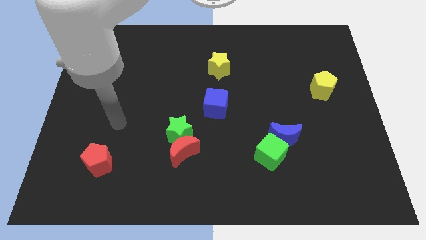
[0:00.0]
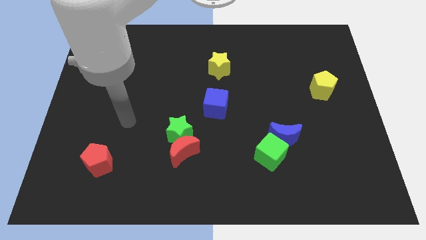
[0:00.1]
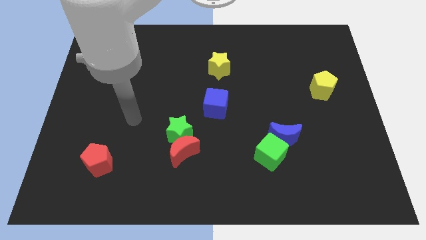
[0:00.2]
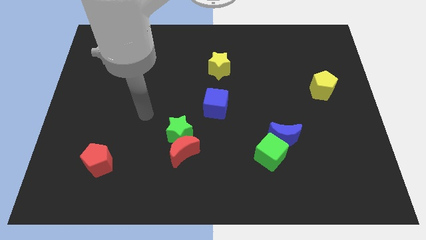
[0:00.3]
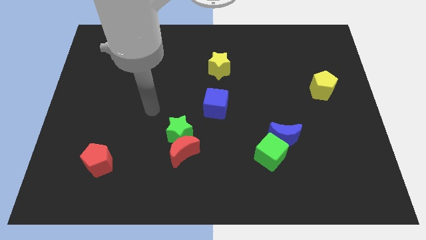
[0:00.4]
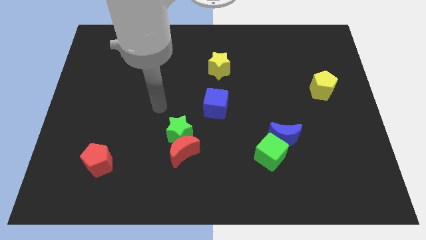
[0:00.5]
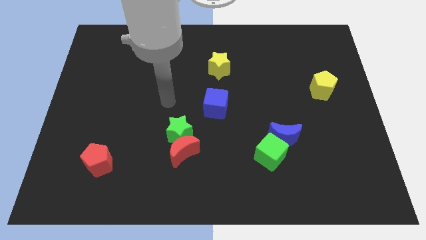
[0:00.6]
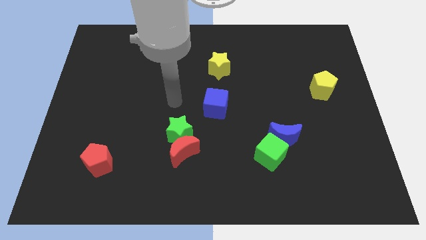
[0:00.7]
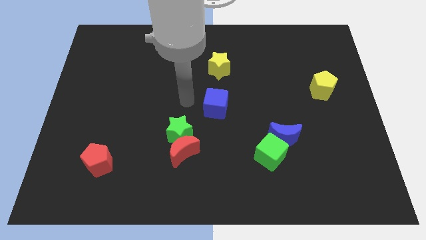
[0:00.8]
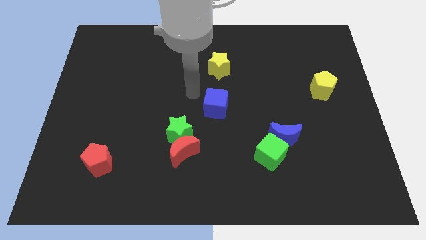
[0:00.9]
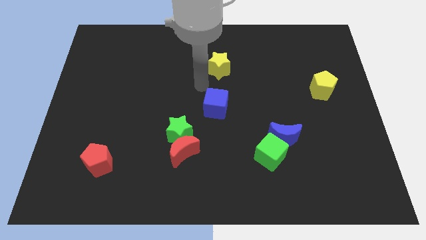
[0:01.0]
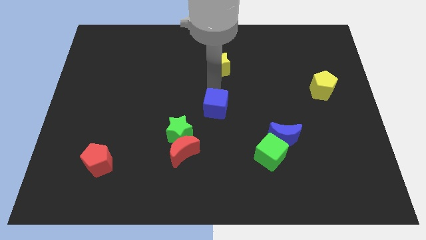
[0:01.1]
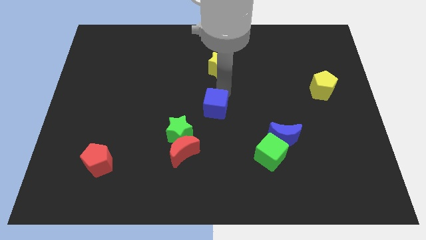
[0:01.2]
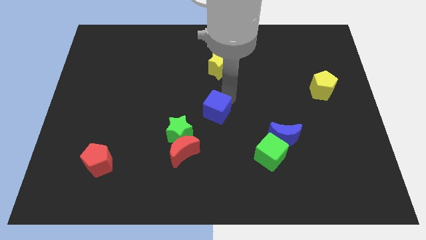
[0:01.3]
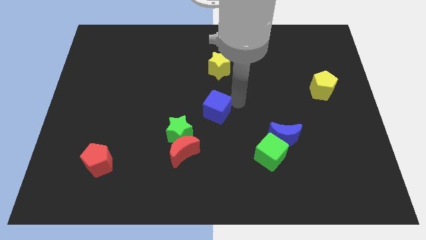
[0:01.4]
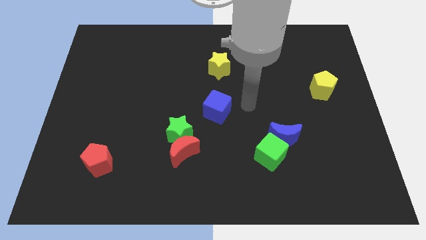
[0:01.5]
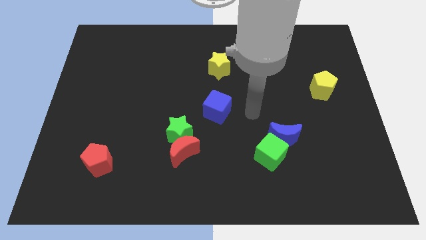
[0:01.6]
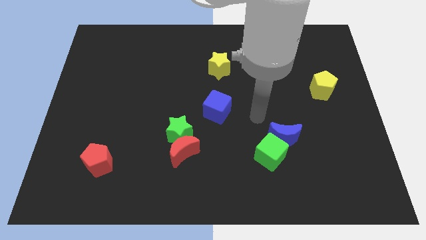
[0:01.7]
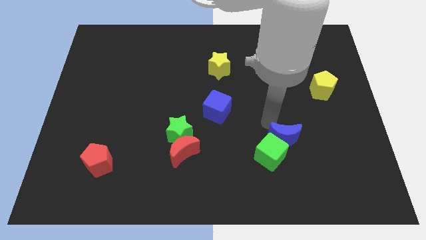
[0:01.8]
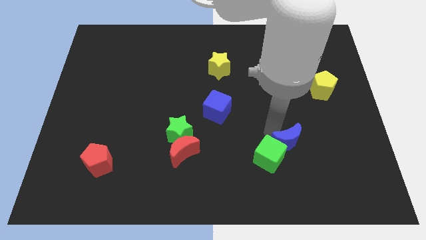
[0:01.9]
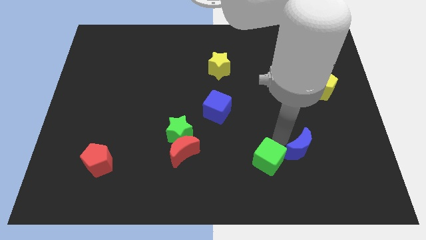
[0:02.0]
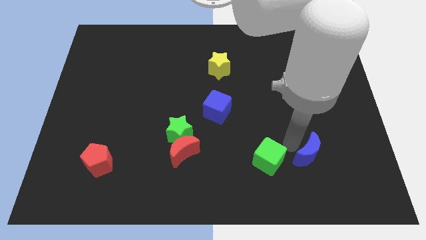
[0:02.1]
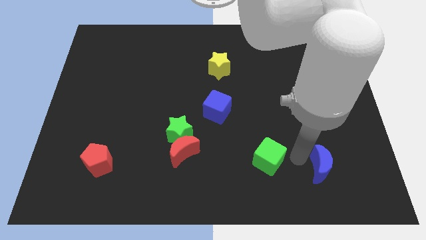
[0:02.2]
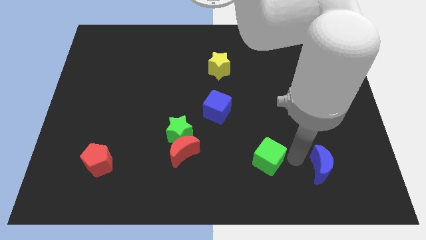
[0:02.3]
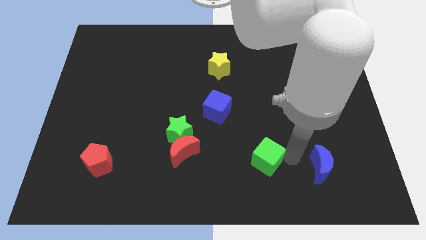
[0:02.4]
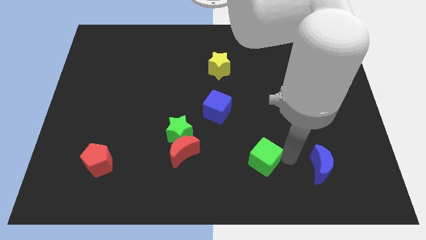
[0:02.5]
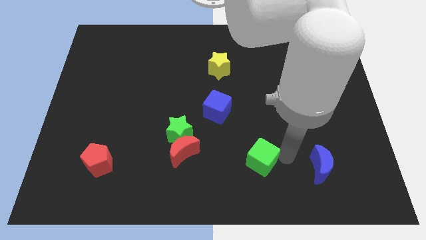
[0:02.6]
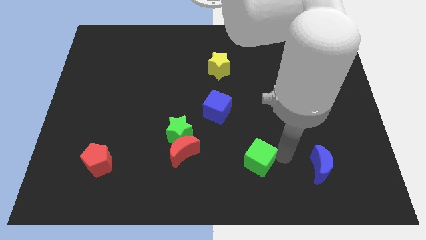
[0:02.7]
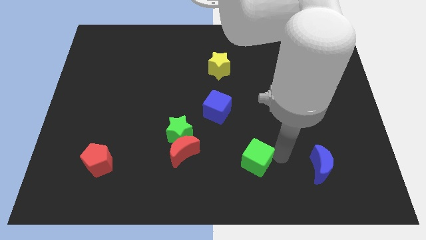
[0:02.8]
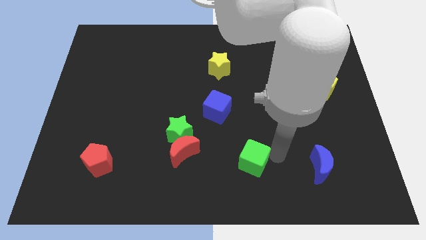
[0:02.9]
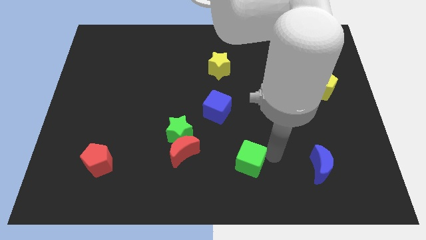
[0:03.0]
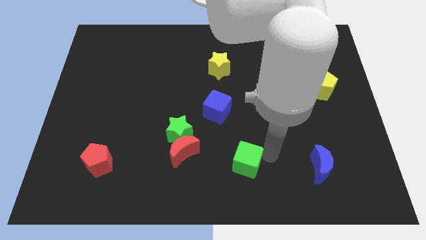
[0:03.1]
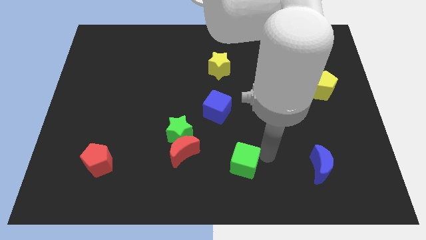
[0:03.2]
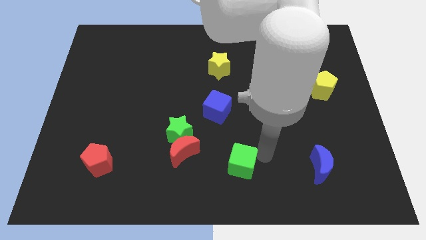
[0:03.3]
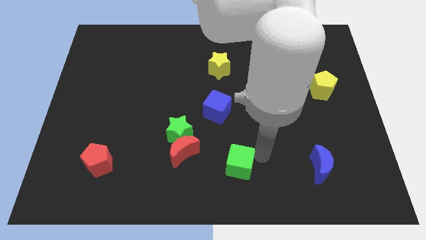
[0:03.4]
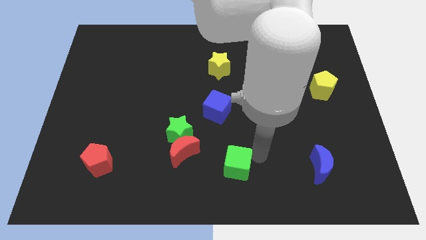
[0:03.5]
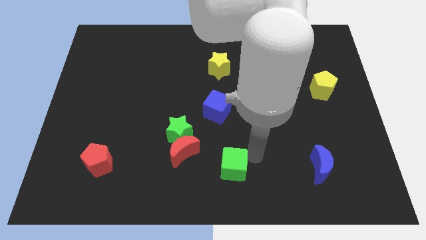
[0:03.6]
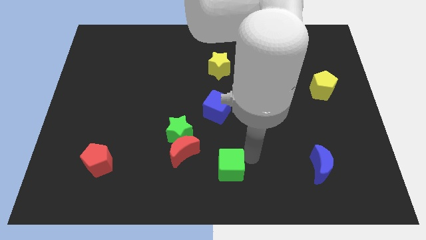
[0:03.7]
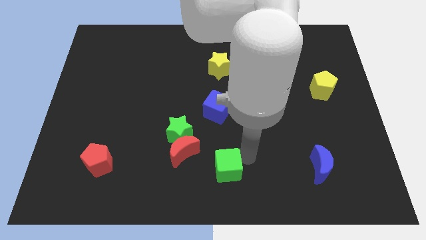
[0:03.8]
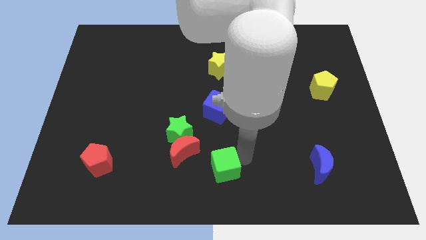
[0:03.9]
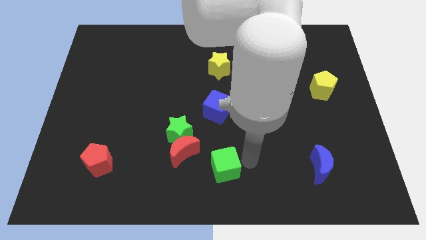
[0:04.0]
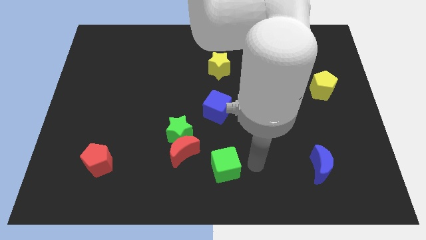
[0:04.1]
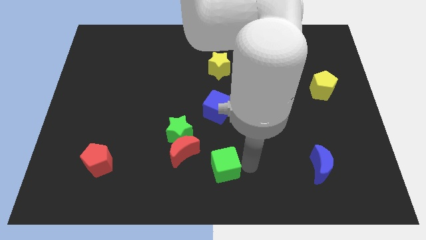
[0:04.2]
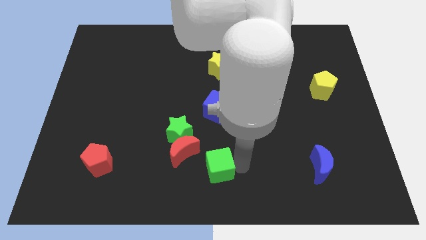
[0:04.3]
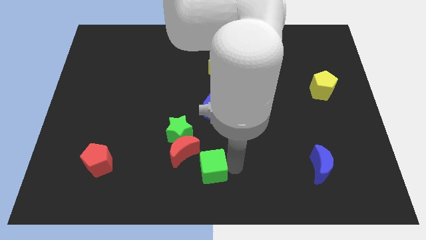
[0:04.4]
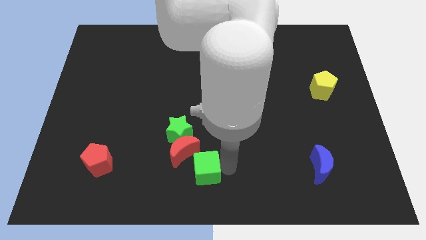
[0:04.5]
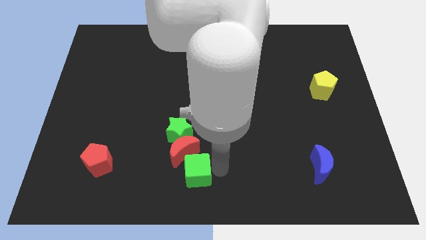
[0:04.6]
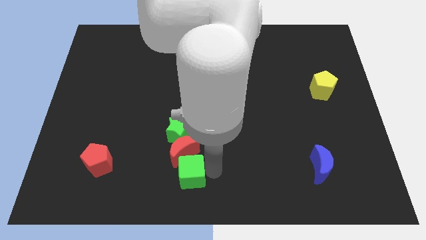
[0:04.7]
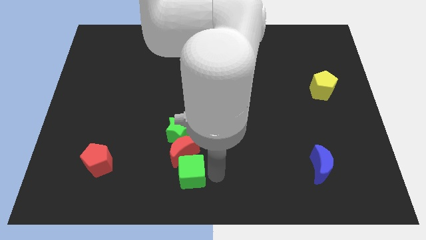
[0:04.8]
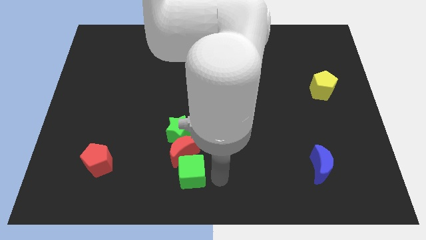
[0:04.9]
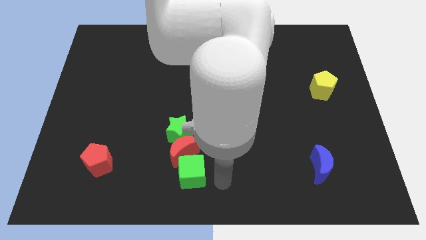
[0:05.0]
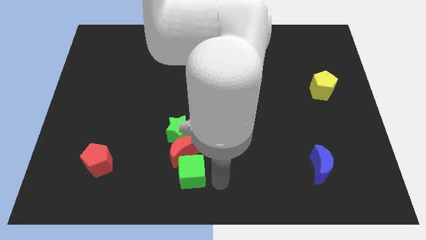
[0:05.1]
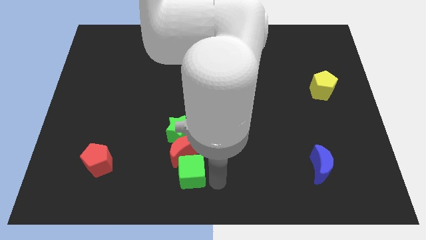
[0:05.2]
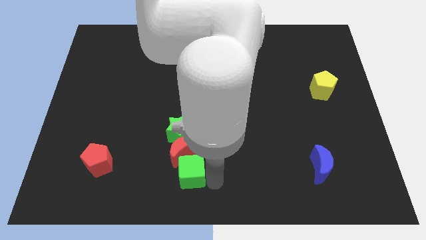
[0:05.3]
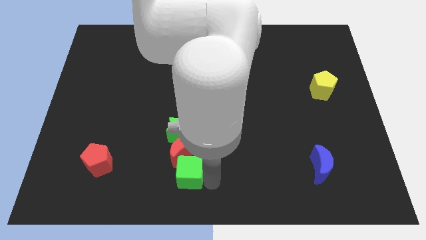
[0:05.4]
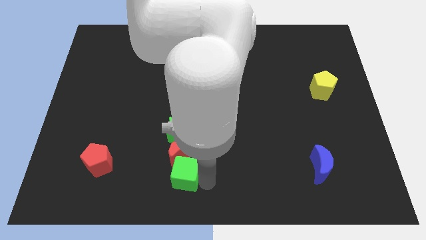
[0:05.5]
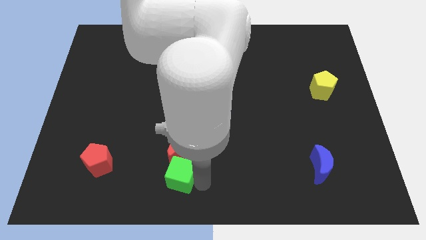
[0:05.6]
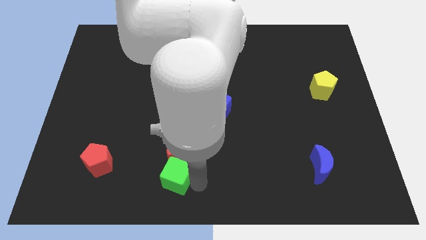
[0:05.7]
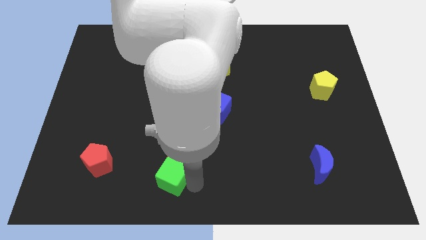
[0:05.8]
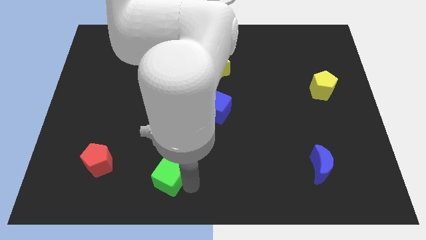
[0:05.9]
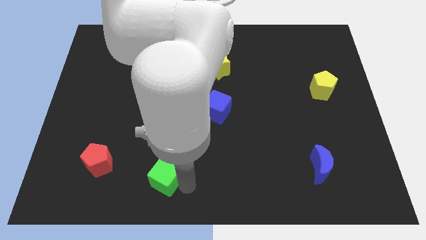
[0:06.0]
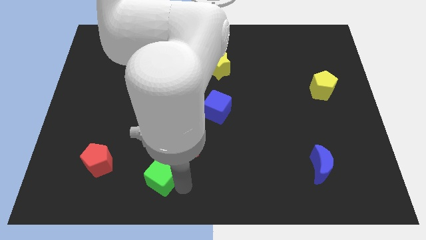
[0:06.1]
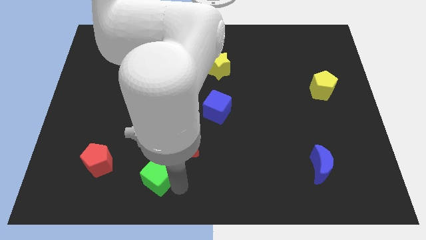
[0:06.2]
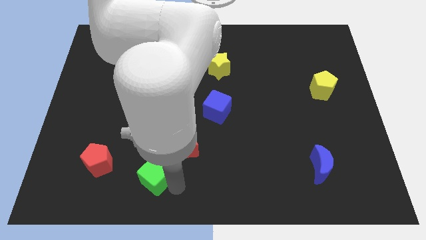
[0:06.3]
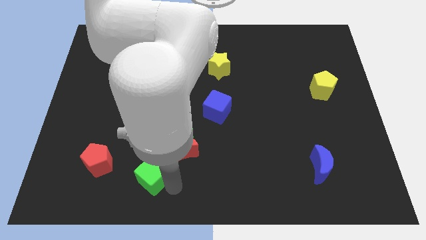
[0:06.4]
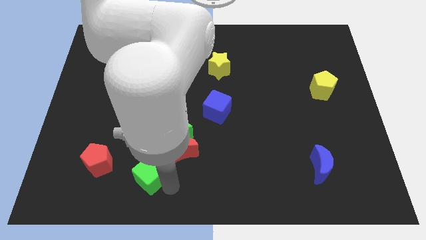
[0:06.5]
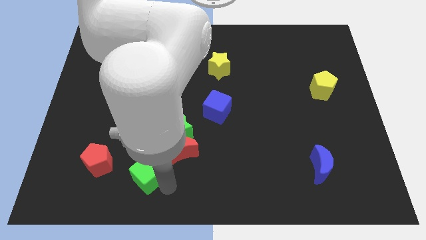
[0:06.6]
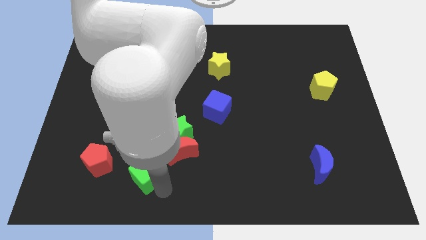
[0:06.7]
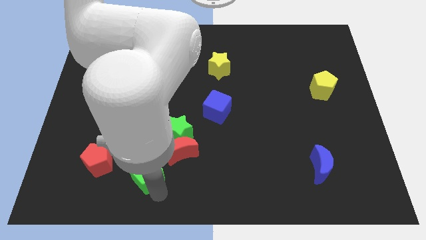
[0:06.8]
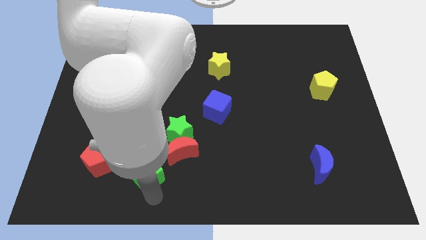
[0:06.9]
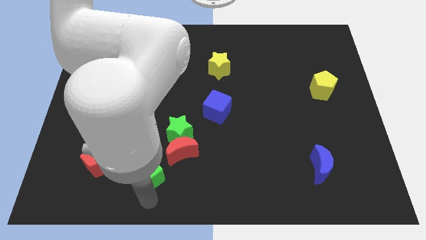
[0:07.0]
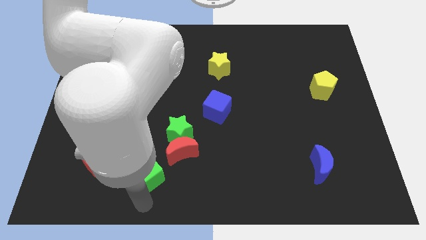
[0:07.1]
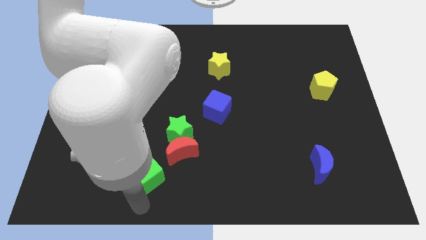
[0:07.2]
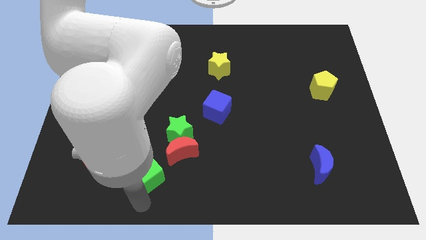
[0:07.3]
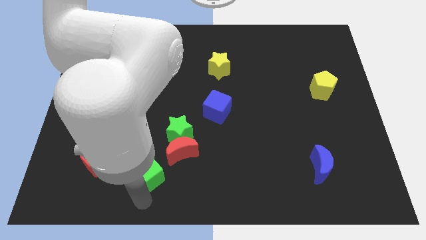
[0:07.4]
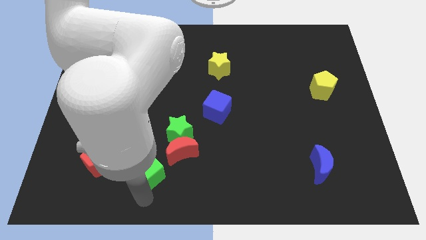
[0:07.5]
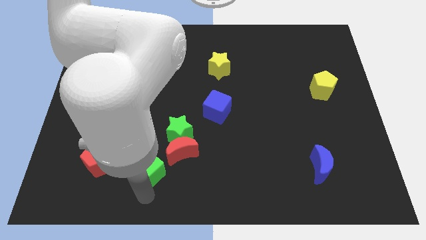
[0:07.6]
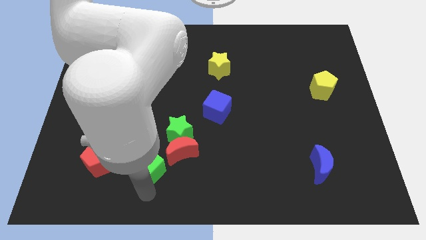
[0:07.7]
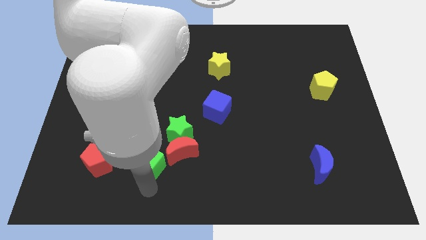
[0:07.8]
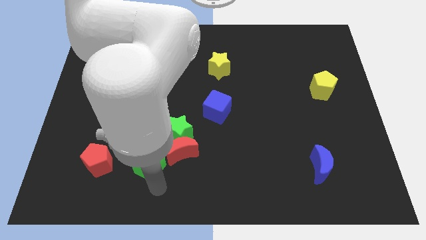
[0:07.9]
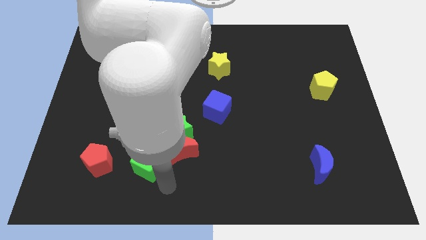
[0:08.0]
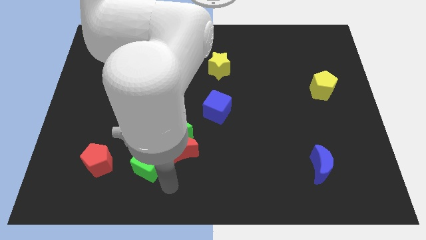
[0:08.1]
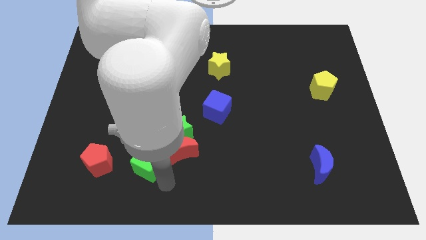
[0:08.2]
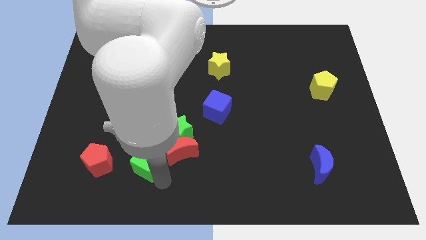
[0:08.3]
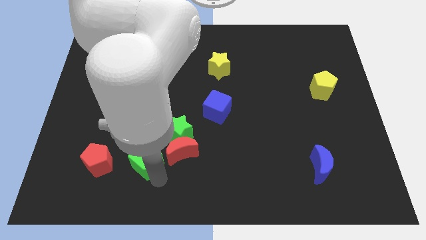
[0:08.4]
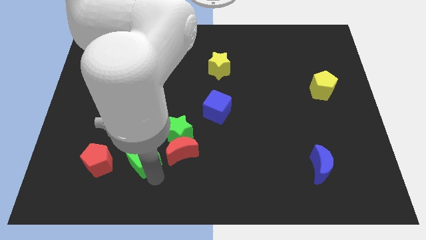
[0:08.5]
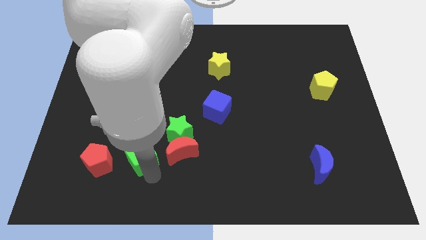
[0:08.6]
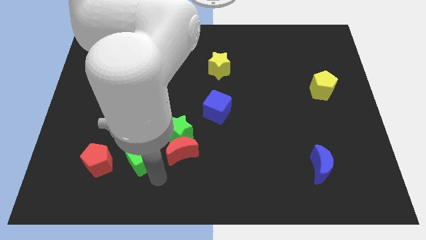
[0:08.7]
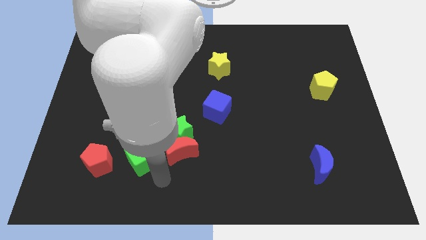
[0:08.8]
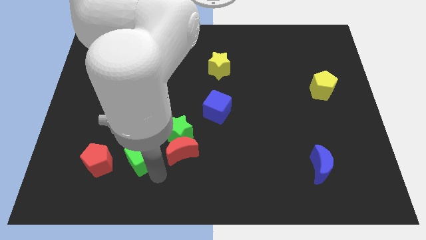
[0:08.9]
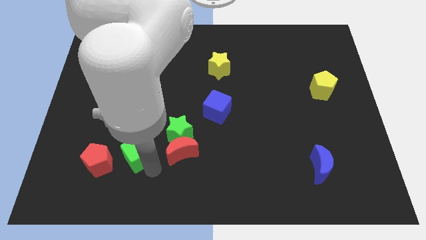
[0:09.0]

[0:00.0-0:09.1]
move the green cube to the top right of the red pentagon
